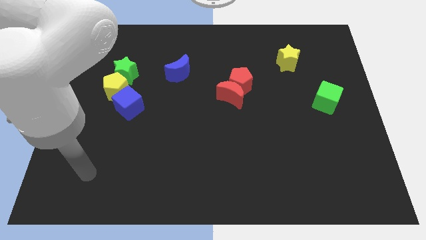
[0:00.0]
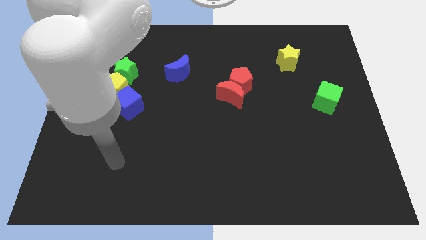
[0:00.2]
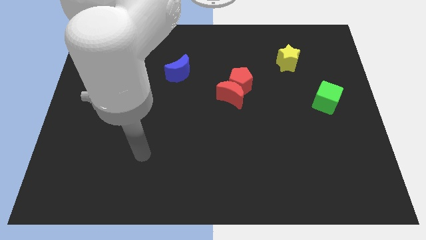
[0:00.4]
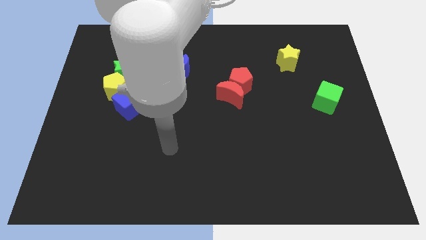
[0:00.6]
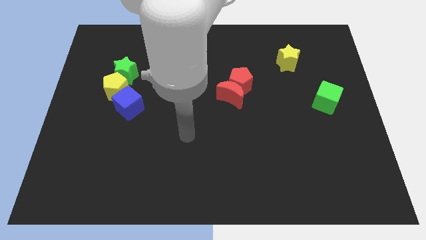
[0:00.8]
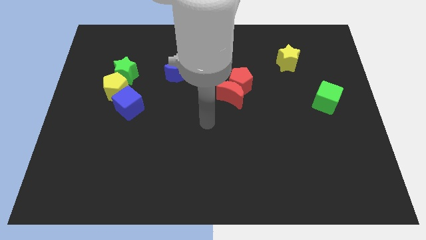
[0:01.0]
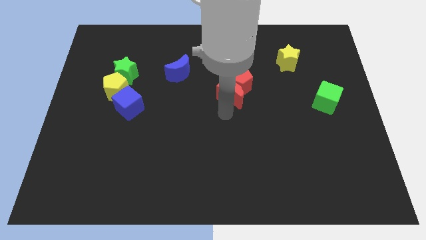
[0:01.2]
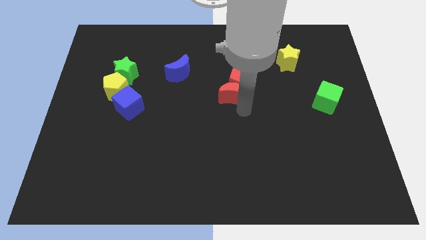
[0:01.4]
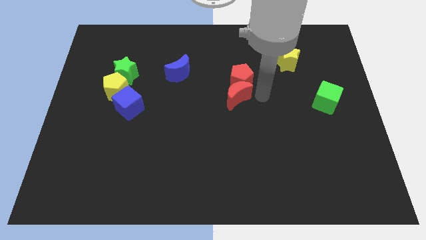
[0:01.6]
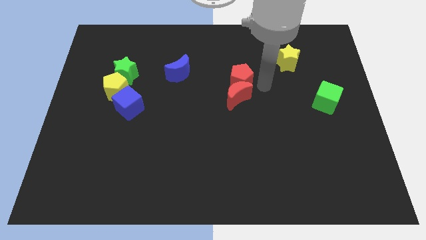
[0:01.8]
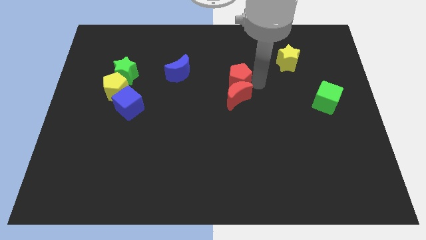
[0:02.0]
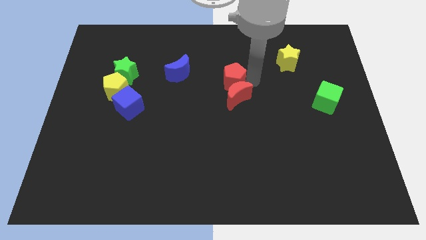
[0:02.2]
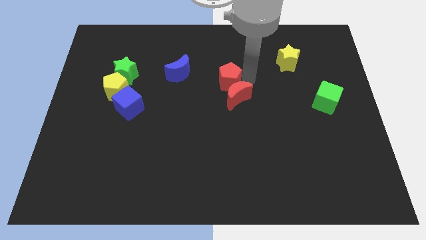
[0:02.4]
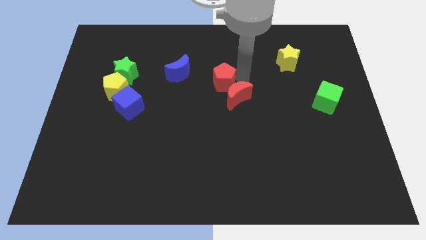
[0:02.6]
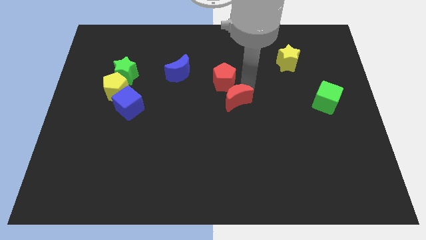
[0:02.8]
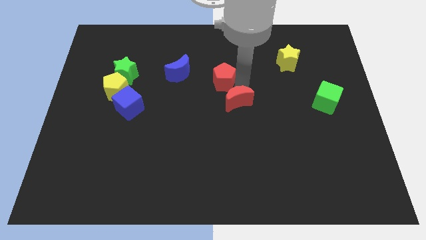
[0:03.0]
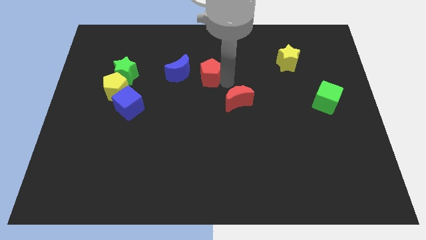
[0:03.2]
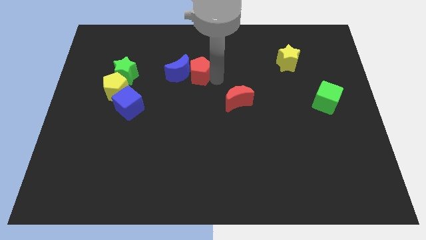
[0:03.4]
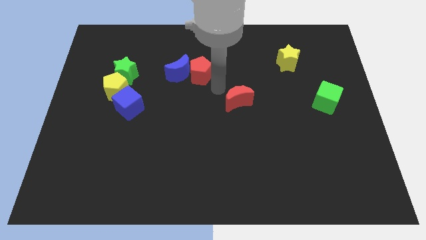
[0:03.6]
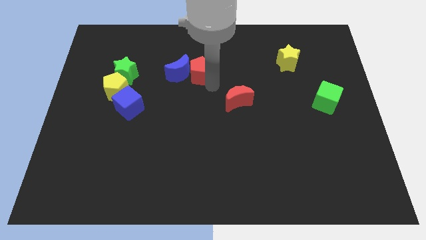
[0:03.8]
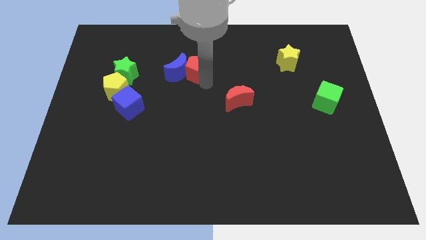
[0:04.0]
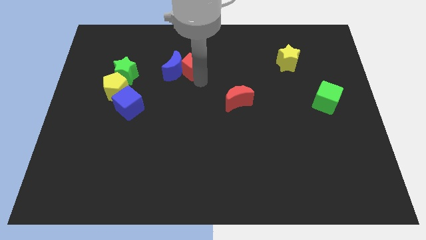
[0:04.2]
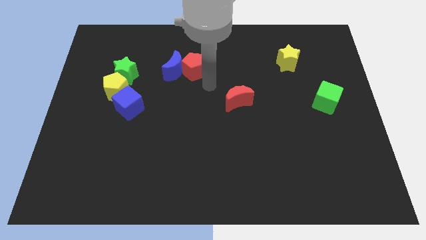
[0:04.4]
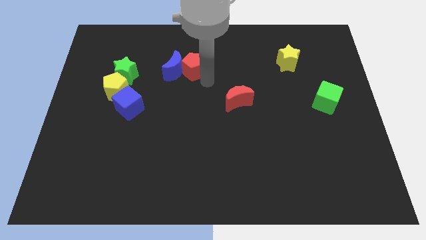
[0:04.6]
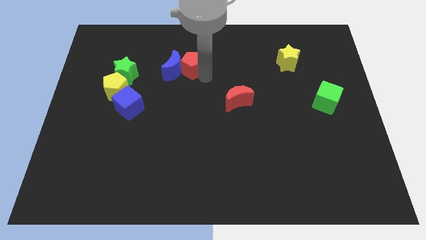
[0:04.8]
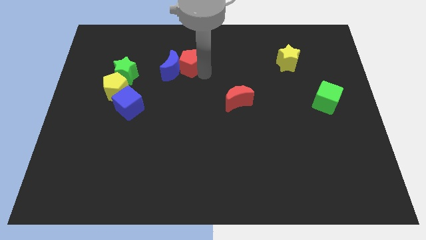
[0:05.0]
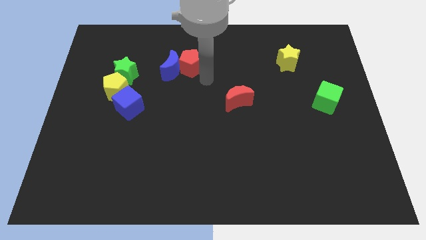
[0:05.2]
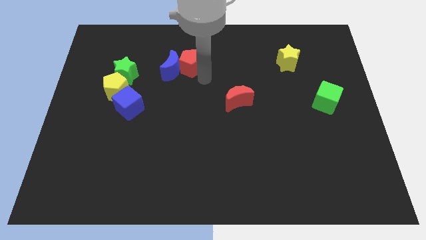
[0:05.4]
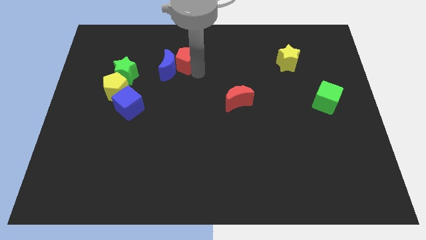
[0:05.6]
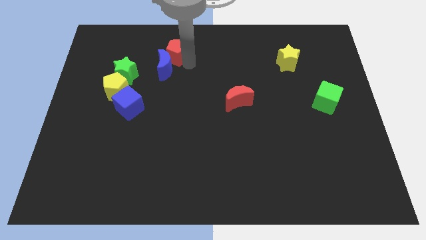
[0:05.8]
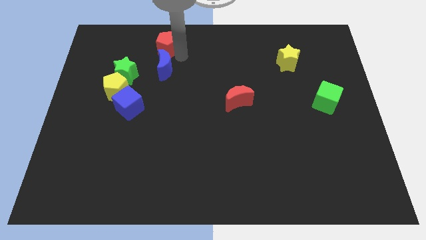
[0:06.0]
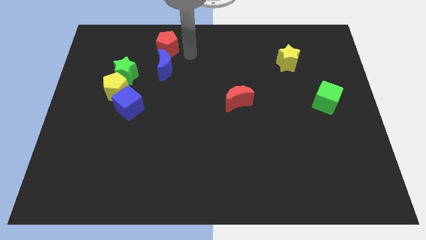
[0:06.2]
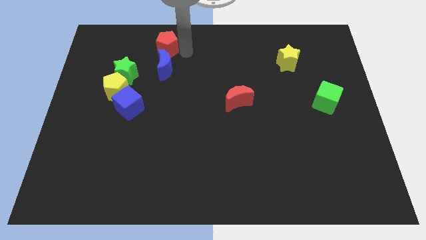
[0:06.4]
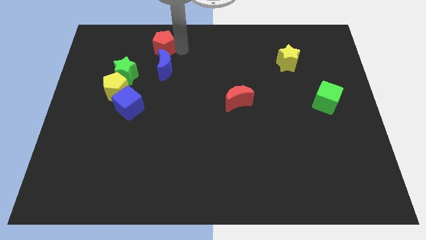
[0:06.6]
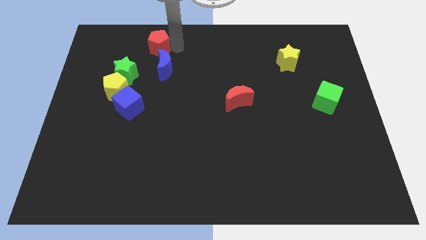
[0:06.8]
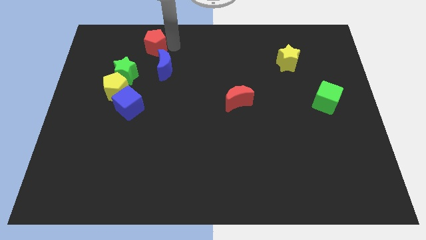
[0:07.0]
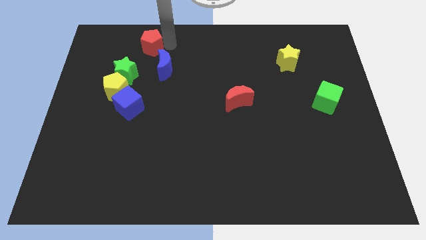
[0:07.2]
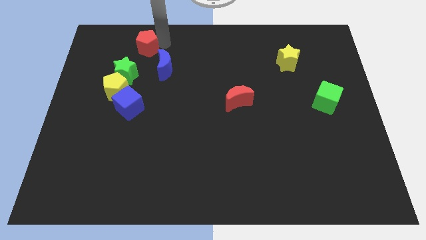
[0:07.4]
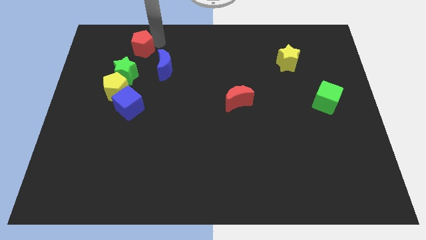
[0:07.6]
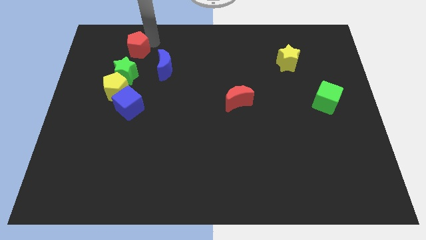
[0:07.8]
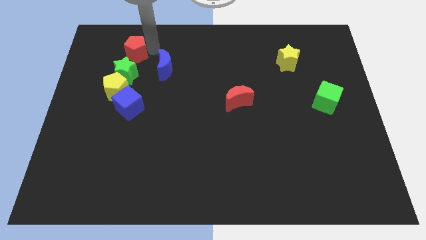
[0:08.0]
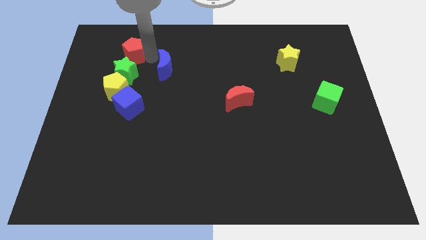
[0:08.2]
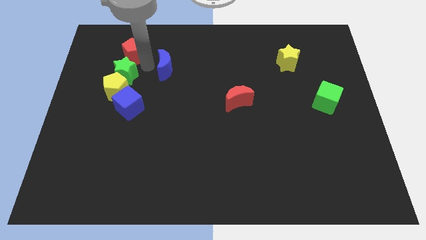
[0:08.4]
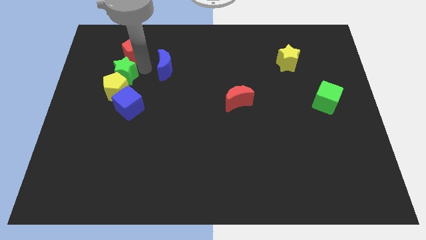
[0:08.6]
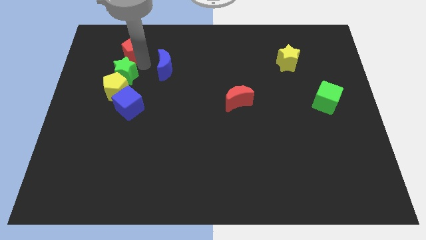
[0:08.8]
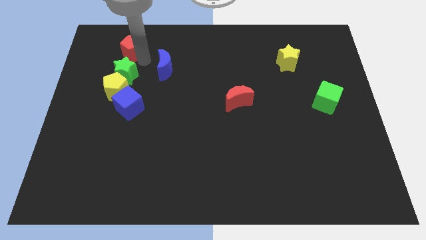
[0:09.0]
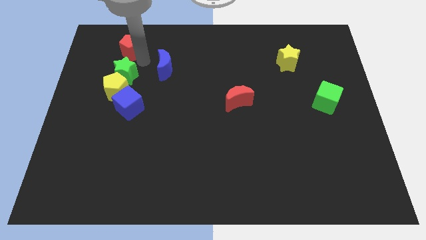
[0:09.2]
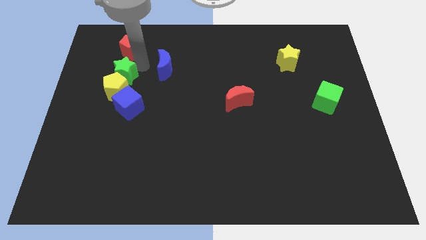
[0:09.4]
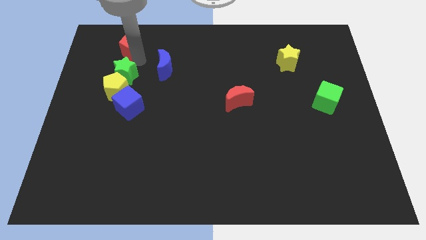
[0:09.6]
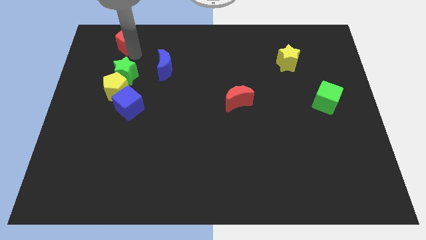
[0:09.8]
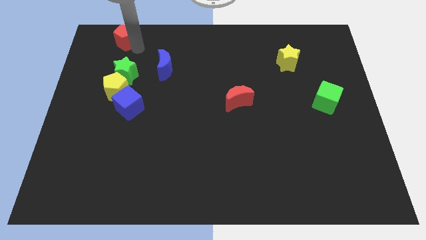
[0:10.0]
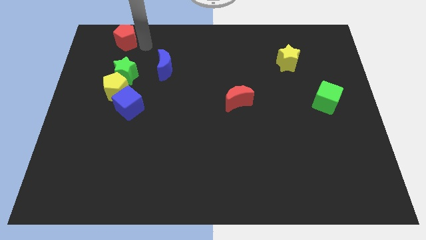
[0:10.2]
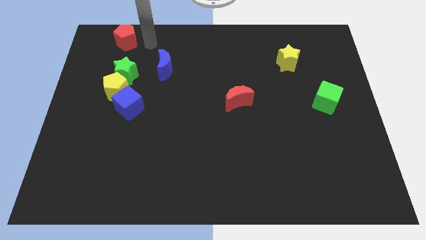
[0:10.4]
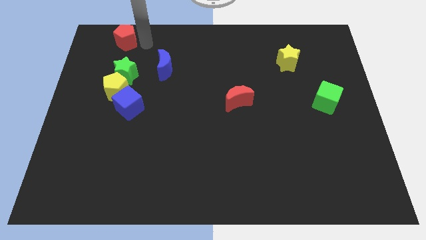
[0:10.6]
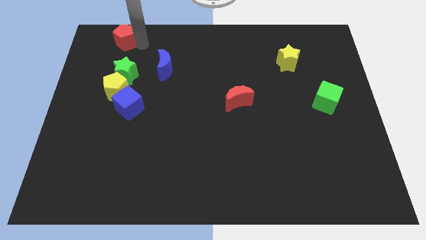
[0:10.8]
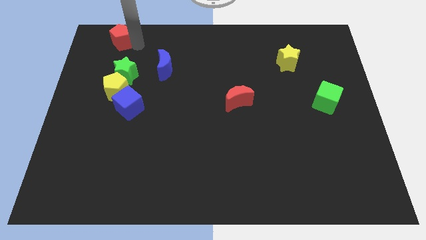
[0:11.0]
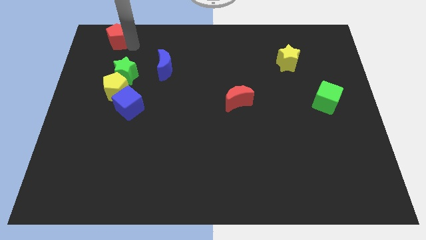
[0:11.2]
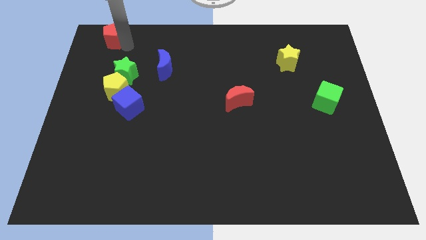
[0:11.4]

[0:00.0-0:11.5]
slide the red pentagon to the top left of the board

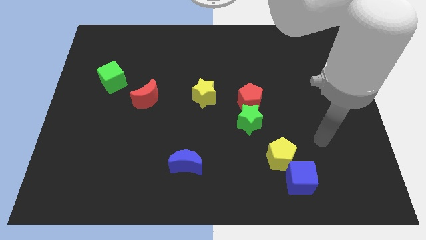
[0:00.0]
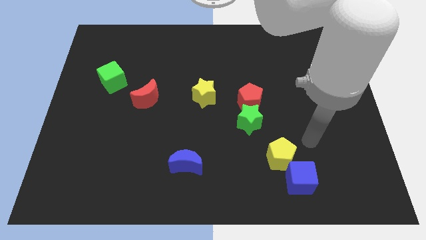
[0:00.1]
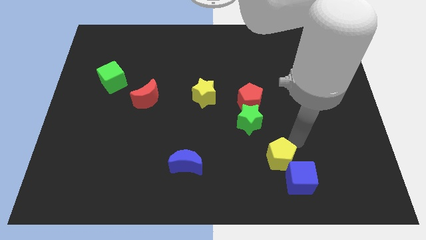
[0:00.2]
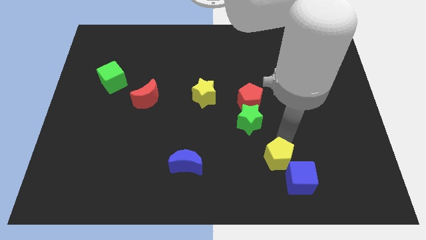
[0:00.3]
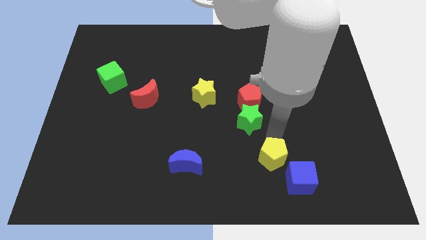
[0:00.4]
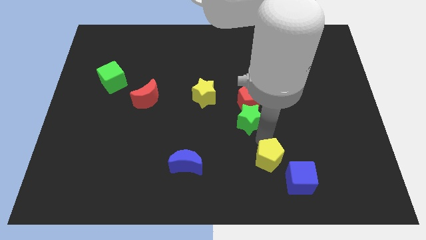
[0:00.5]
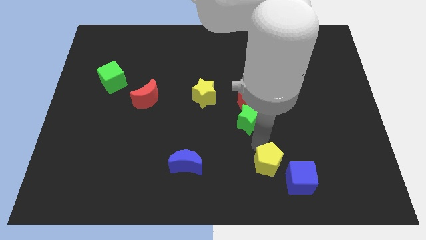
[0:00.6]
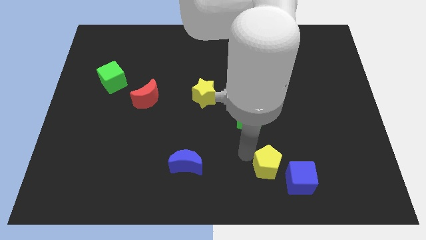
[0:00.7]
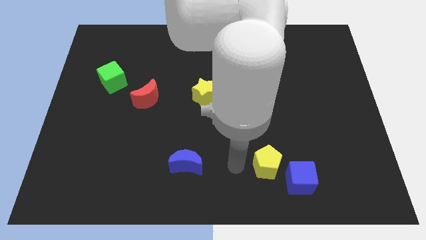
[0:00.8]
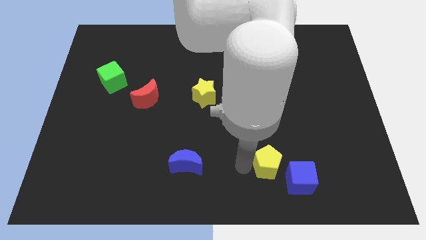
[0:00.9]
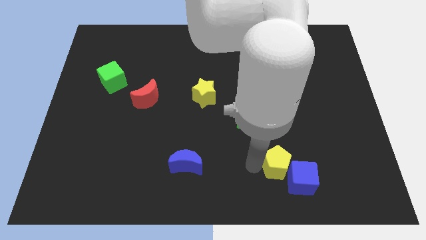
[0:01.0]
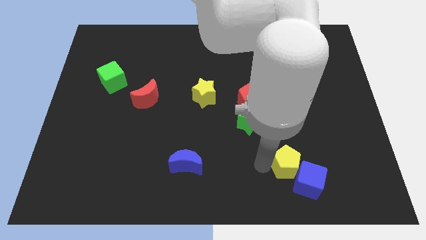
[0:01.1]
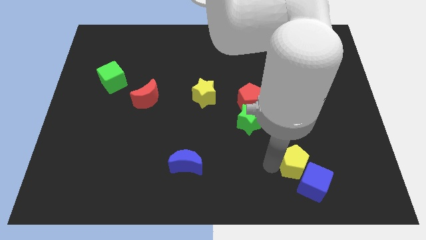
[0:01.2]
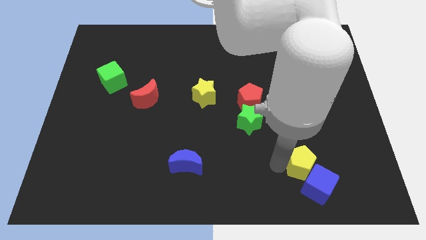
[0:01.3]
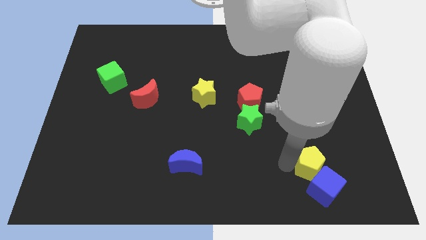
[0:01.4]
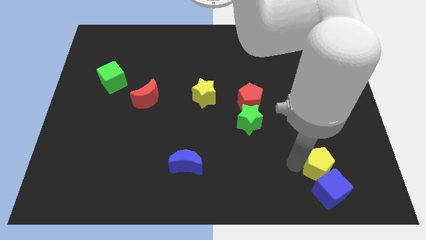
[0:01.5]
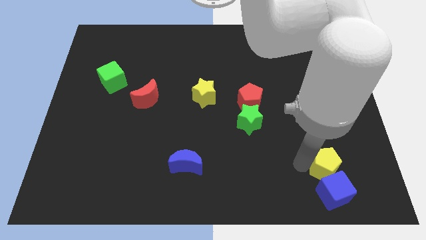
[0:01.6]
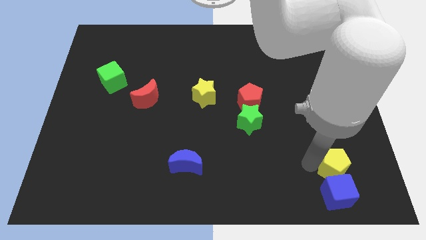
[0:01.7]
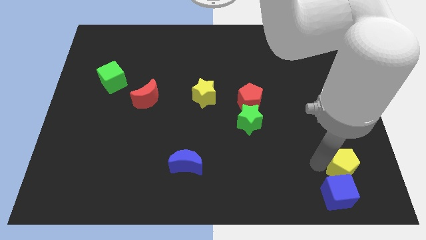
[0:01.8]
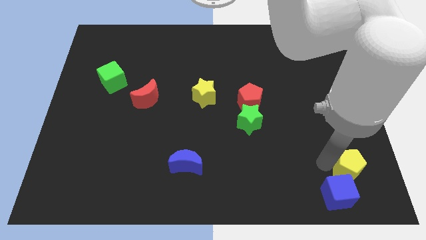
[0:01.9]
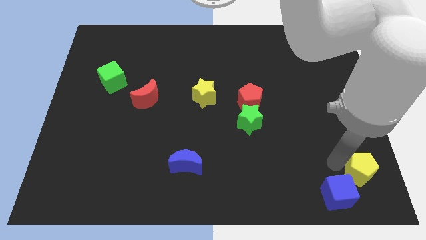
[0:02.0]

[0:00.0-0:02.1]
put the yellow pentagon to the bottom right of the board
